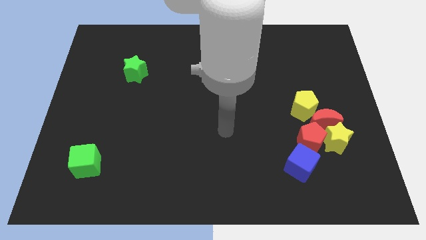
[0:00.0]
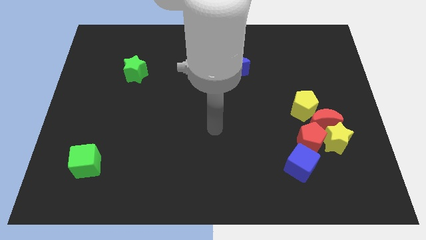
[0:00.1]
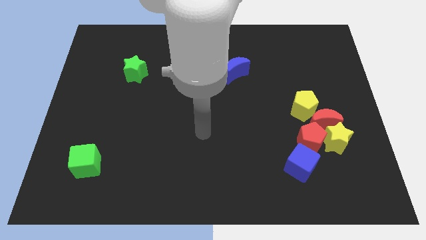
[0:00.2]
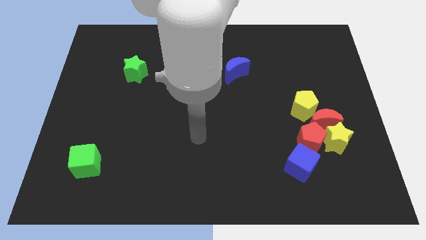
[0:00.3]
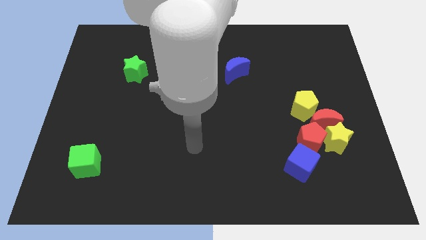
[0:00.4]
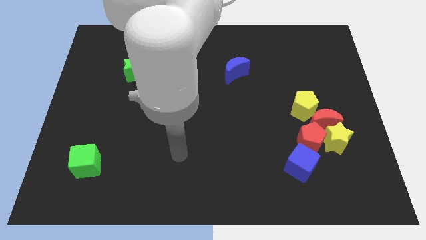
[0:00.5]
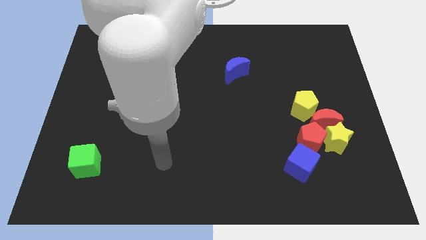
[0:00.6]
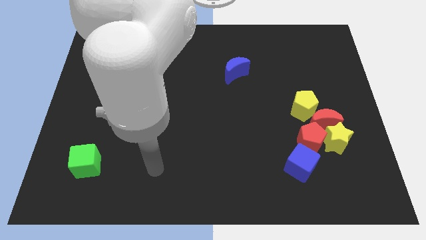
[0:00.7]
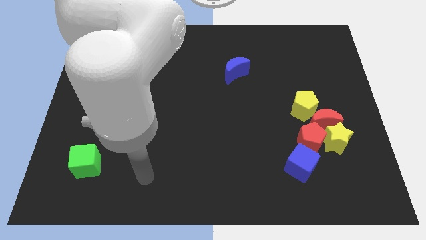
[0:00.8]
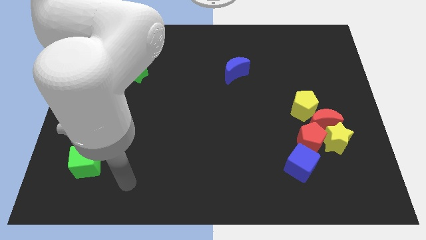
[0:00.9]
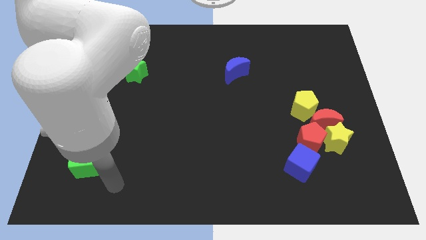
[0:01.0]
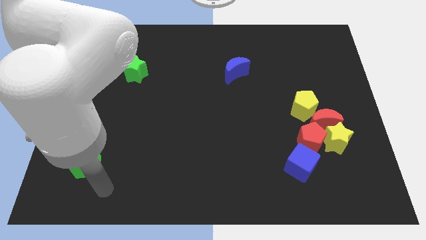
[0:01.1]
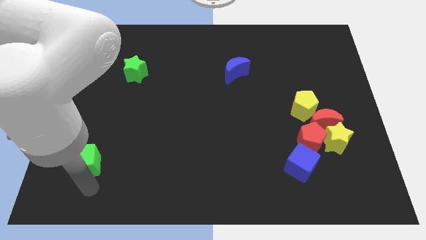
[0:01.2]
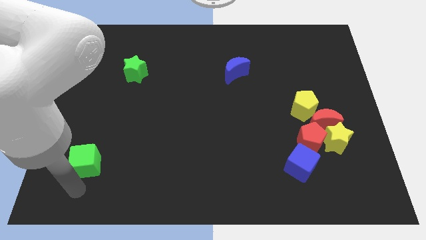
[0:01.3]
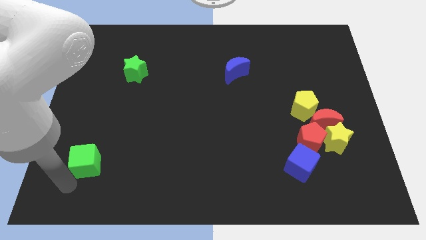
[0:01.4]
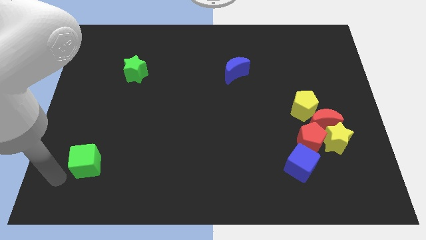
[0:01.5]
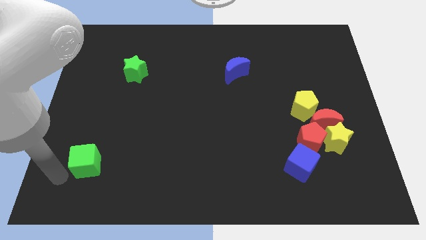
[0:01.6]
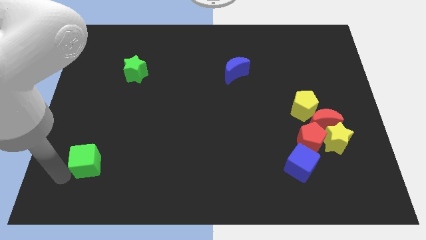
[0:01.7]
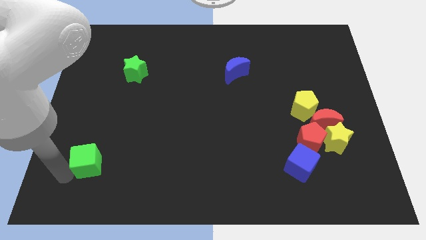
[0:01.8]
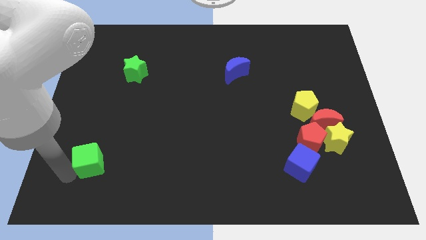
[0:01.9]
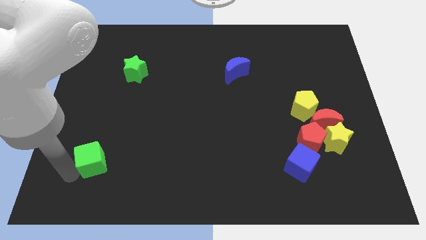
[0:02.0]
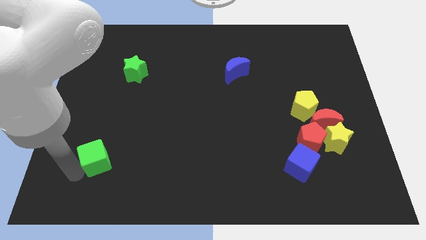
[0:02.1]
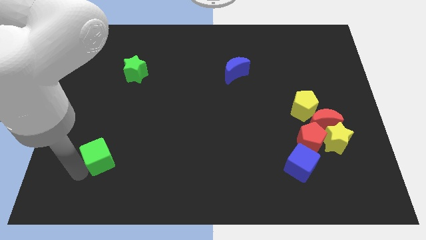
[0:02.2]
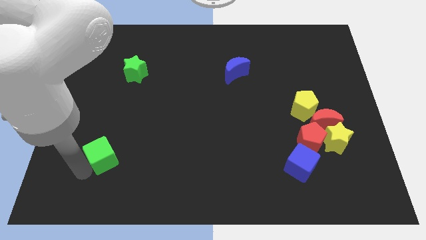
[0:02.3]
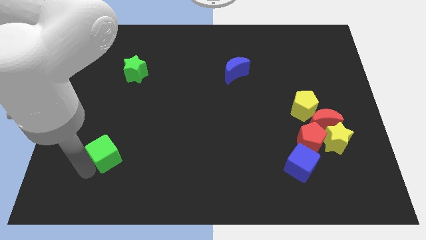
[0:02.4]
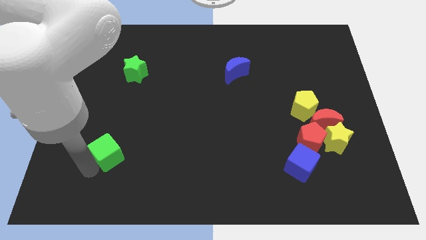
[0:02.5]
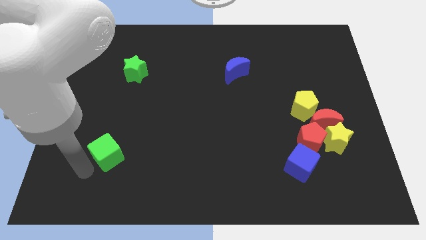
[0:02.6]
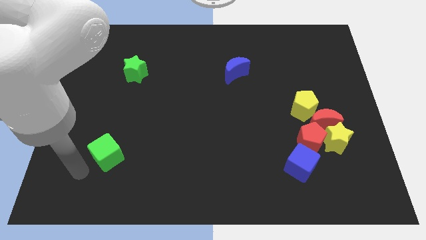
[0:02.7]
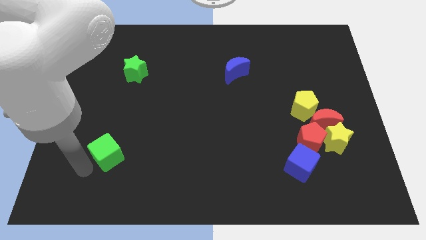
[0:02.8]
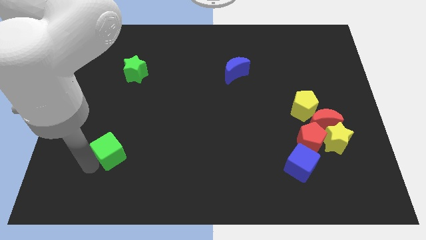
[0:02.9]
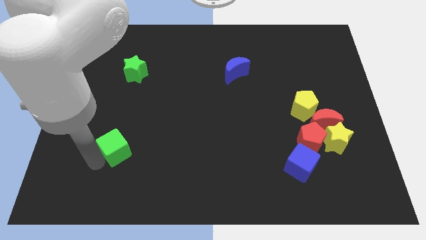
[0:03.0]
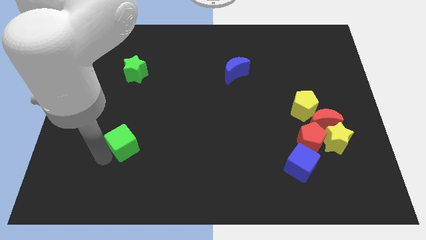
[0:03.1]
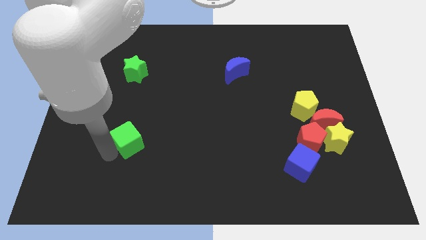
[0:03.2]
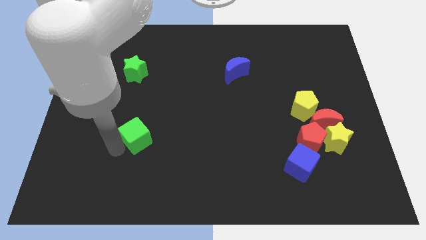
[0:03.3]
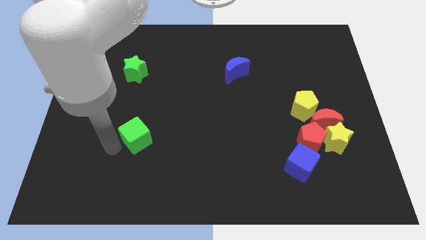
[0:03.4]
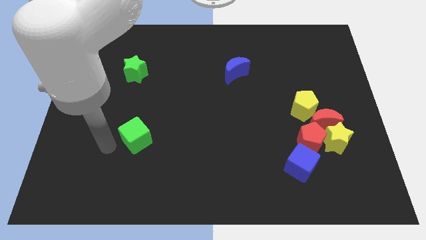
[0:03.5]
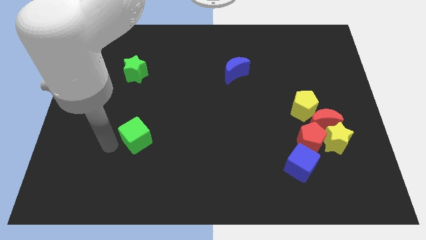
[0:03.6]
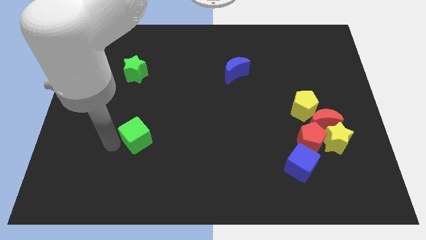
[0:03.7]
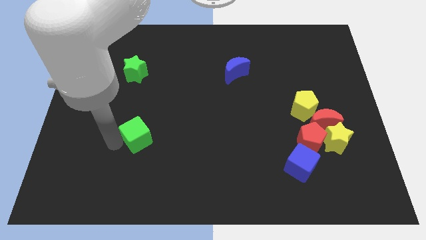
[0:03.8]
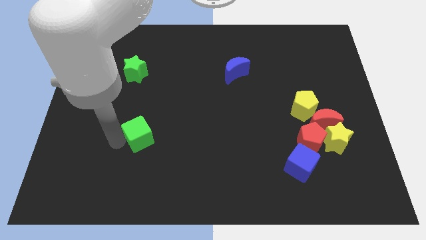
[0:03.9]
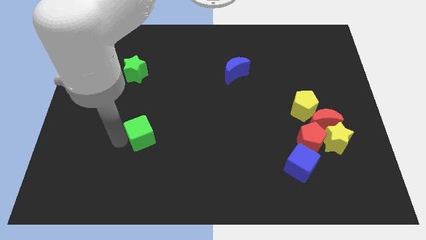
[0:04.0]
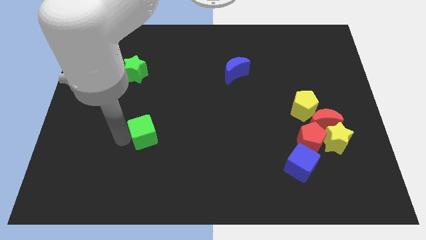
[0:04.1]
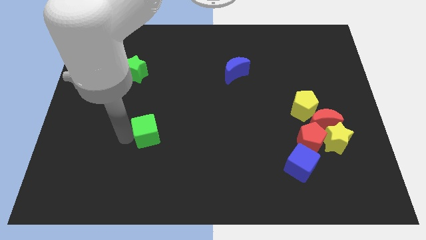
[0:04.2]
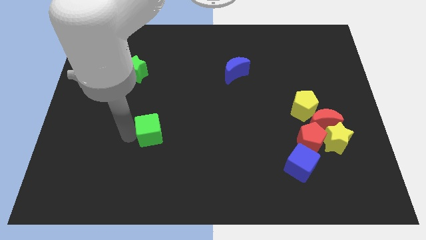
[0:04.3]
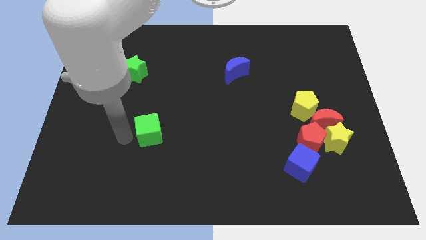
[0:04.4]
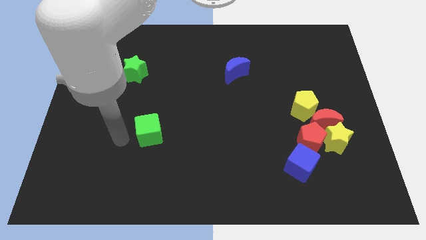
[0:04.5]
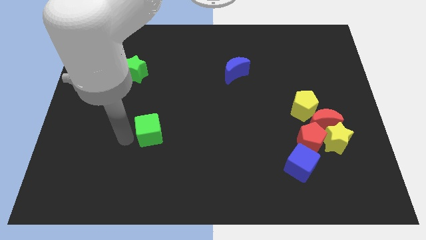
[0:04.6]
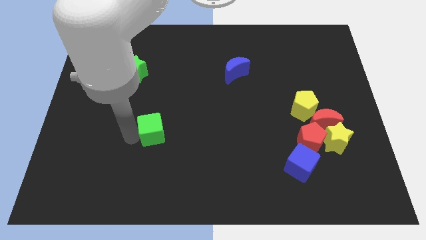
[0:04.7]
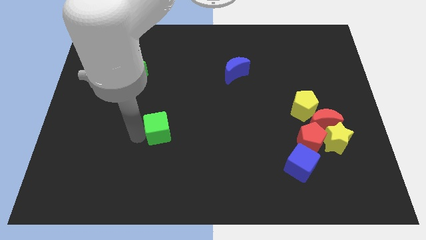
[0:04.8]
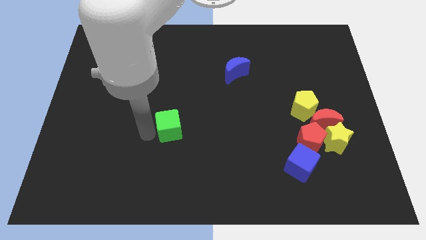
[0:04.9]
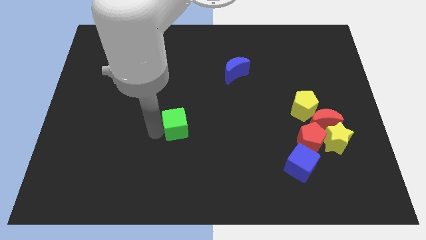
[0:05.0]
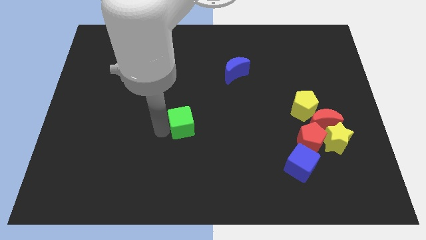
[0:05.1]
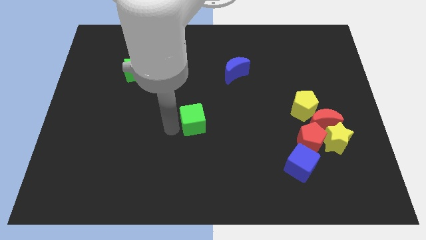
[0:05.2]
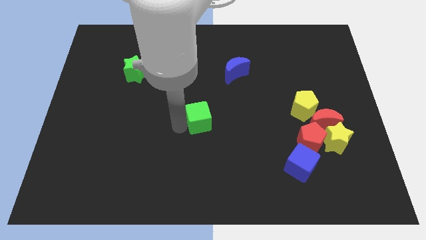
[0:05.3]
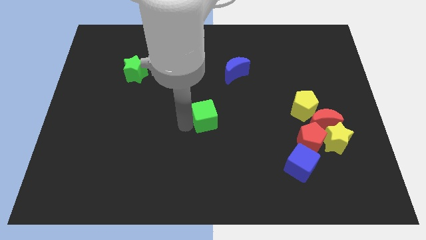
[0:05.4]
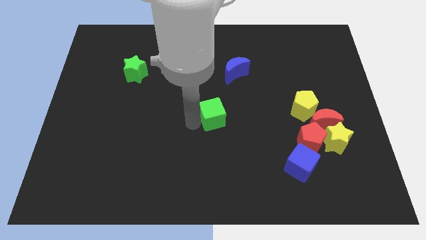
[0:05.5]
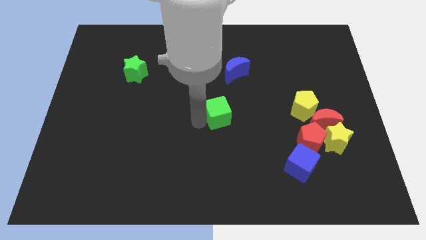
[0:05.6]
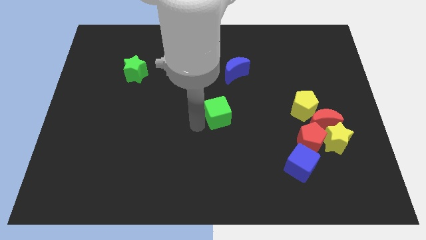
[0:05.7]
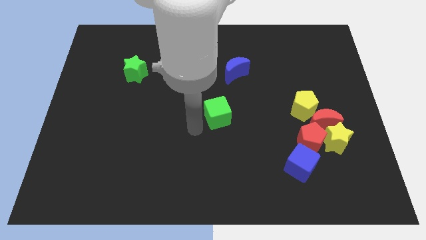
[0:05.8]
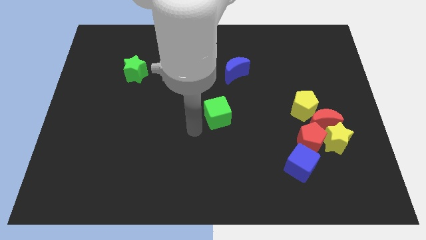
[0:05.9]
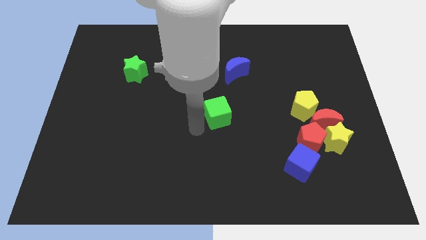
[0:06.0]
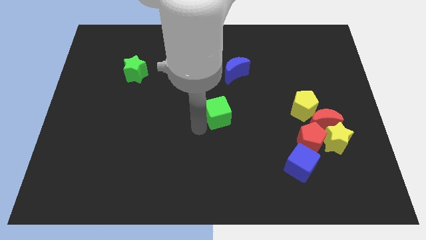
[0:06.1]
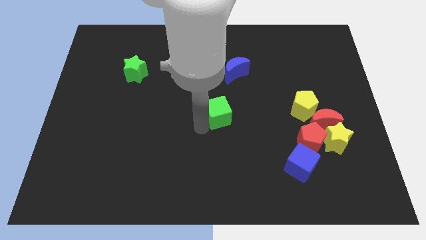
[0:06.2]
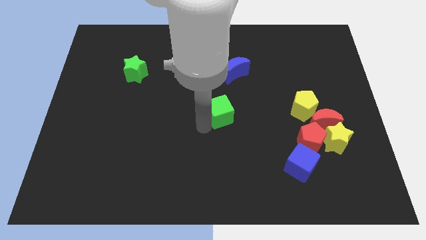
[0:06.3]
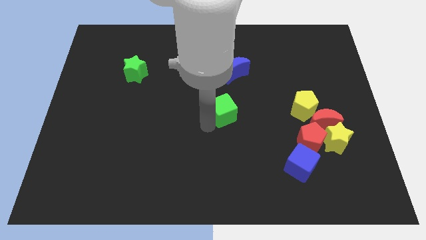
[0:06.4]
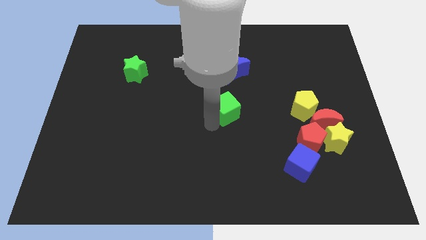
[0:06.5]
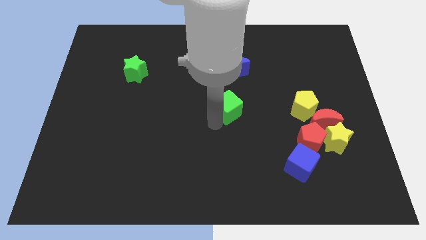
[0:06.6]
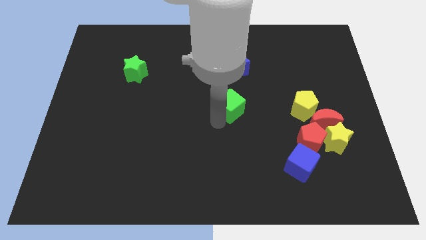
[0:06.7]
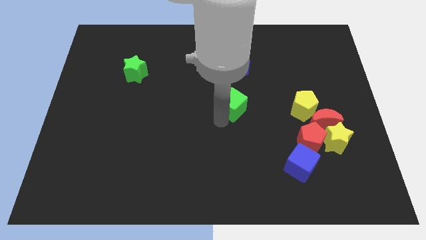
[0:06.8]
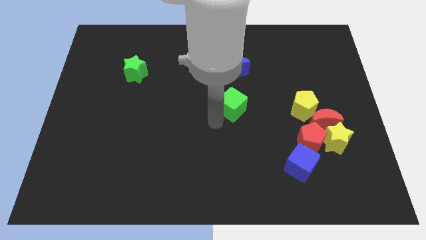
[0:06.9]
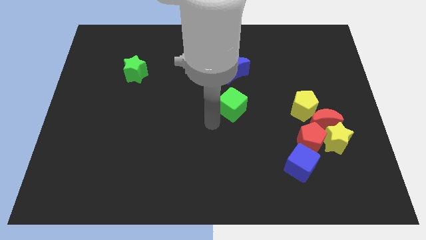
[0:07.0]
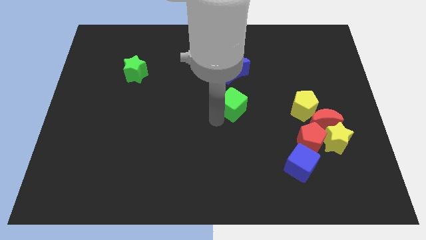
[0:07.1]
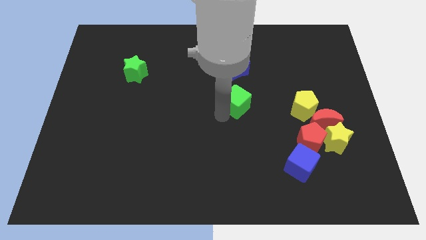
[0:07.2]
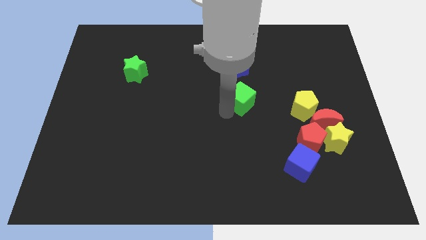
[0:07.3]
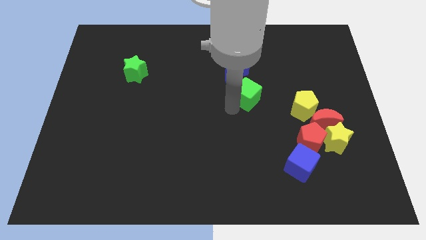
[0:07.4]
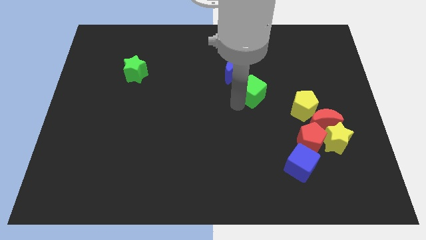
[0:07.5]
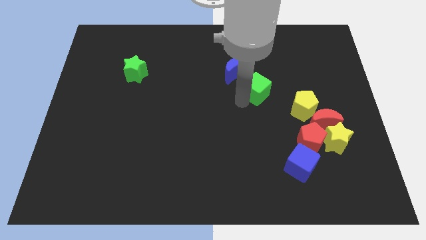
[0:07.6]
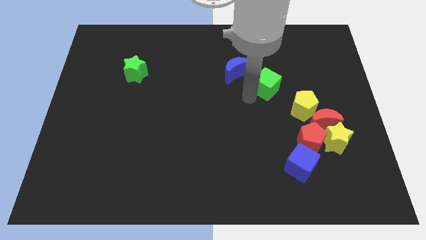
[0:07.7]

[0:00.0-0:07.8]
slide the green cube to the right of the blue moon
